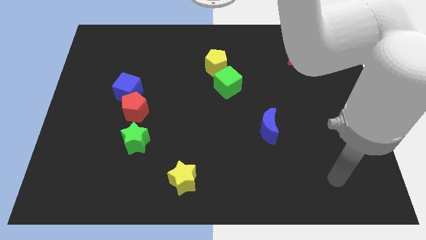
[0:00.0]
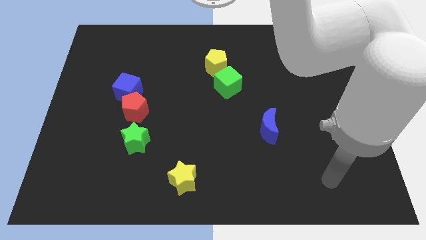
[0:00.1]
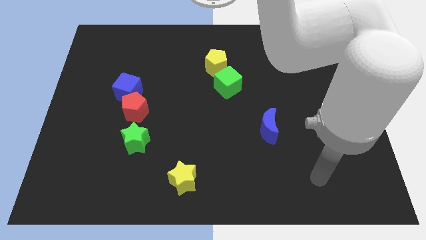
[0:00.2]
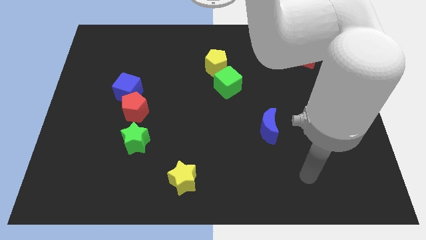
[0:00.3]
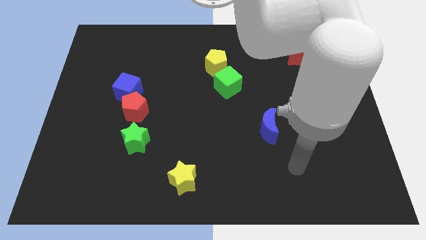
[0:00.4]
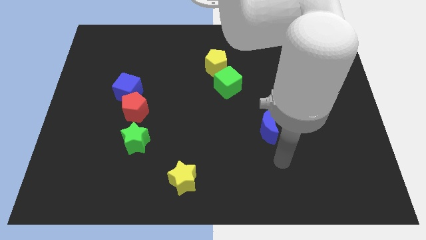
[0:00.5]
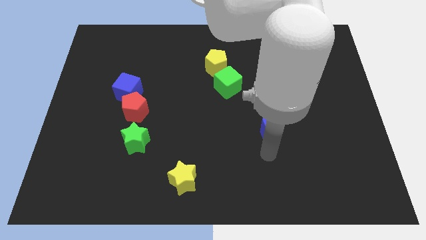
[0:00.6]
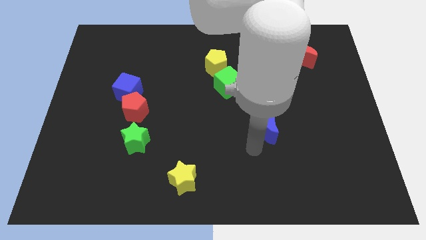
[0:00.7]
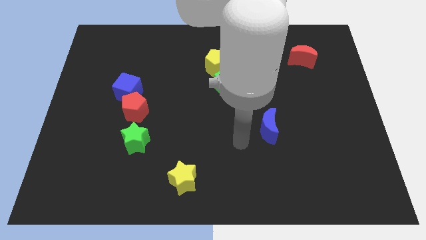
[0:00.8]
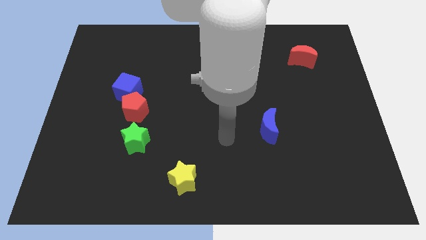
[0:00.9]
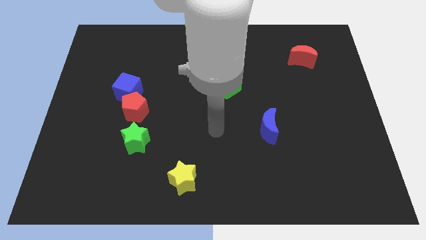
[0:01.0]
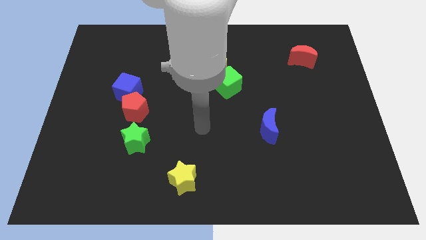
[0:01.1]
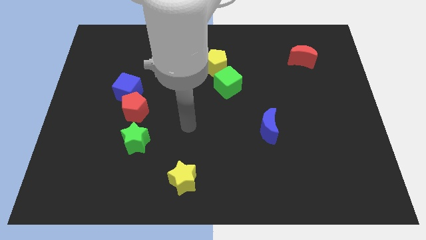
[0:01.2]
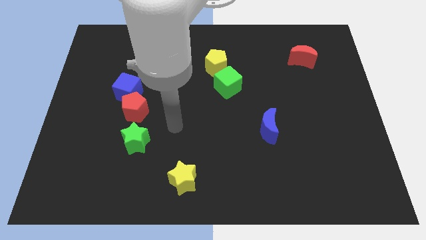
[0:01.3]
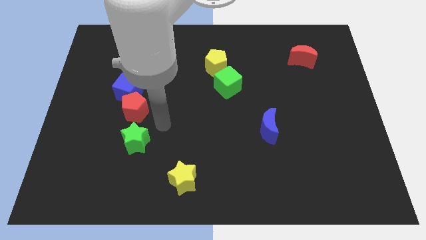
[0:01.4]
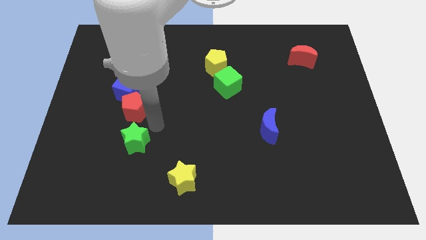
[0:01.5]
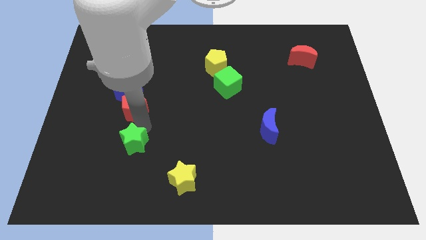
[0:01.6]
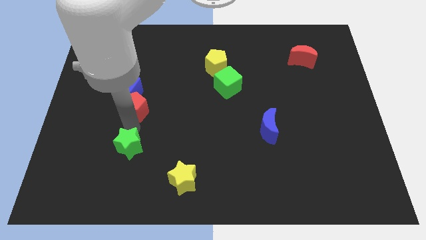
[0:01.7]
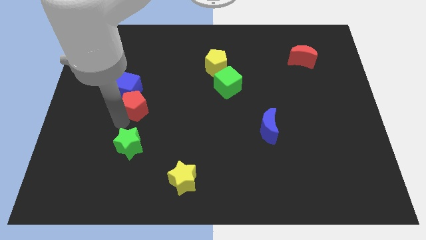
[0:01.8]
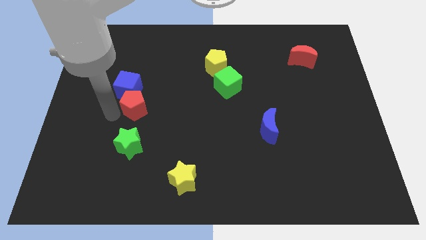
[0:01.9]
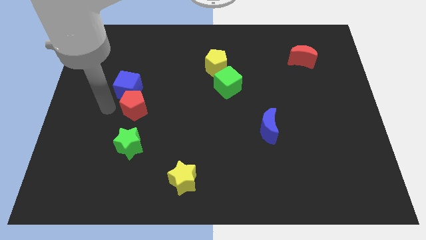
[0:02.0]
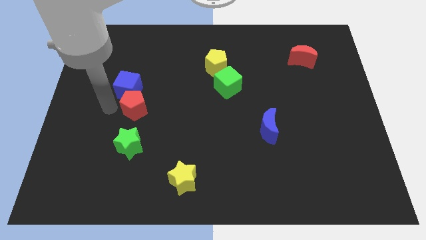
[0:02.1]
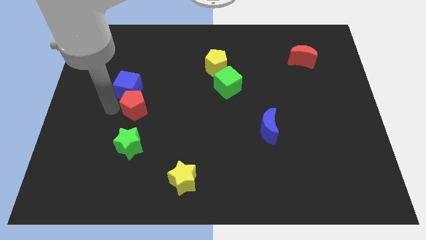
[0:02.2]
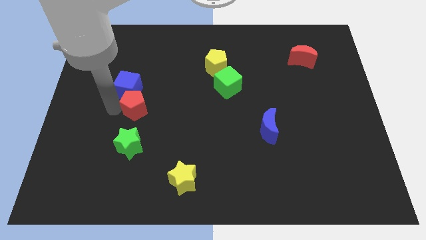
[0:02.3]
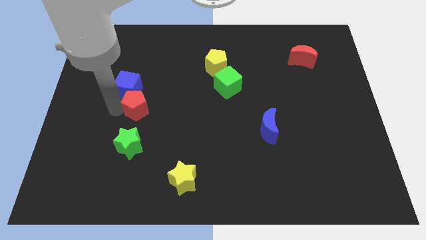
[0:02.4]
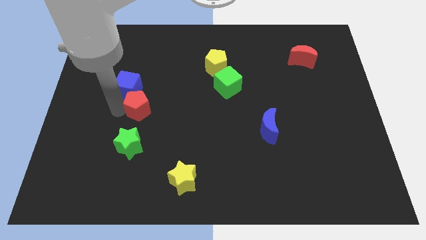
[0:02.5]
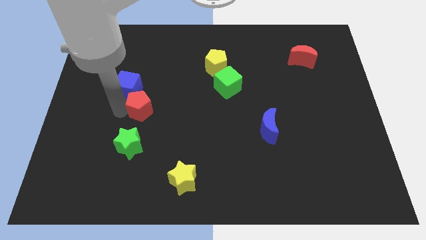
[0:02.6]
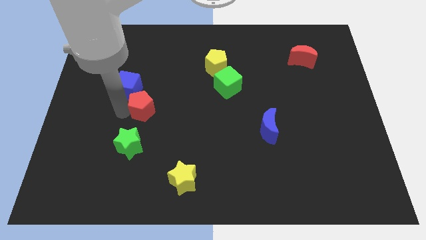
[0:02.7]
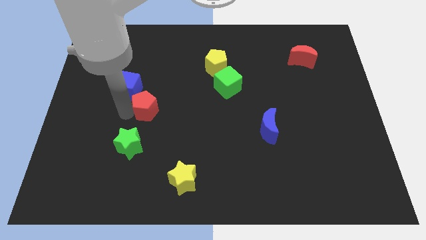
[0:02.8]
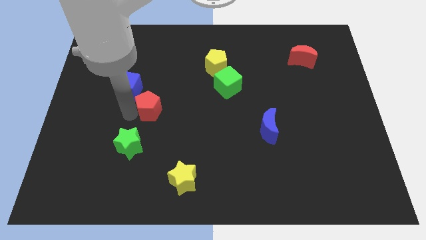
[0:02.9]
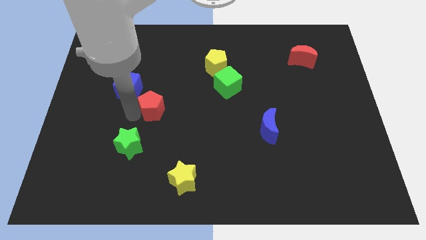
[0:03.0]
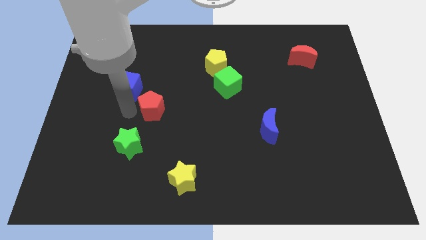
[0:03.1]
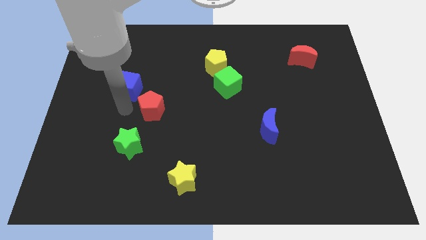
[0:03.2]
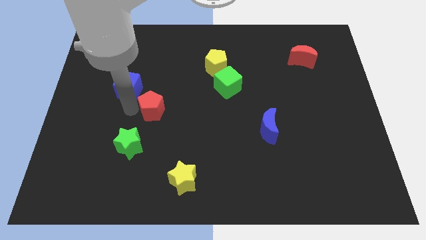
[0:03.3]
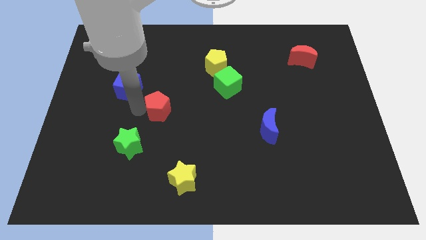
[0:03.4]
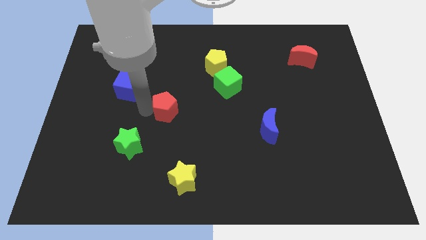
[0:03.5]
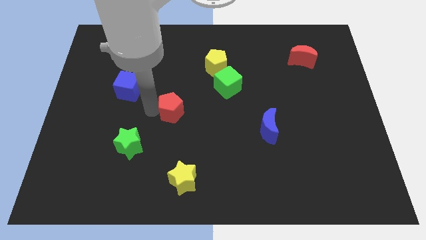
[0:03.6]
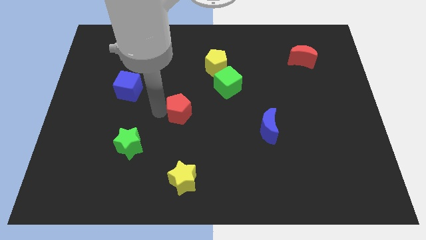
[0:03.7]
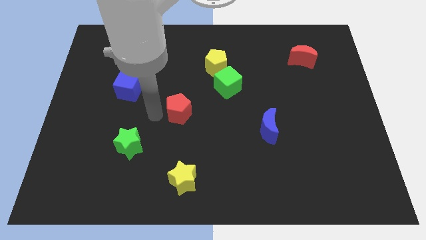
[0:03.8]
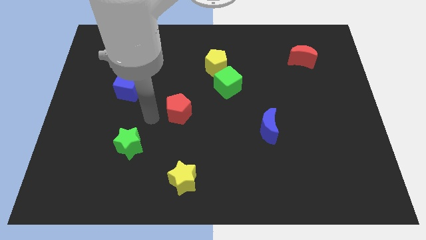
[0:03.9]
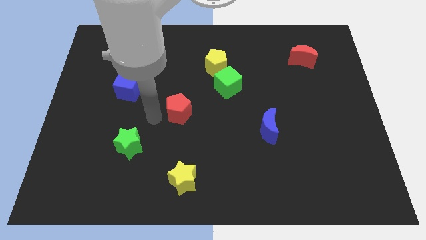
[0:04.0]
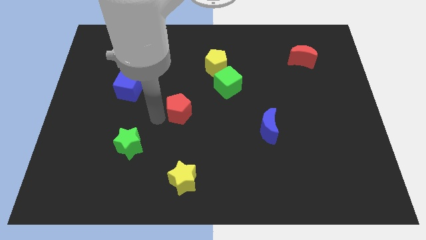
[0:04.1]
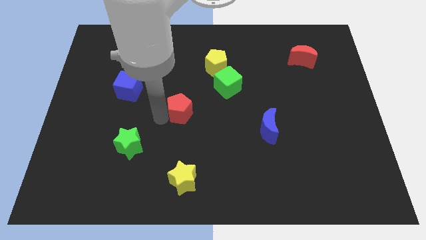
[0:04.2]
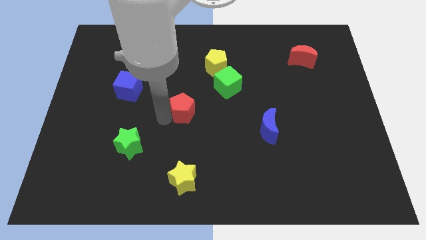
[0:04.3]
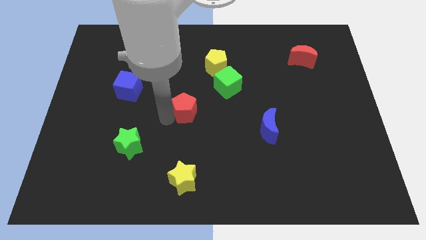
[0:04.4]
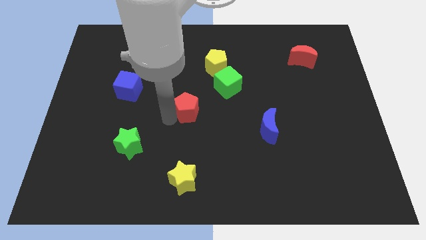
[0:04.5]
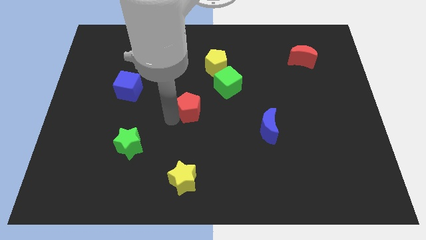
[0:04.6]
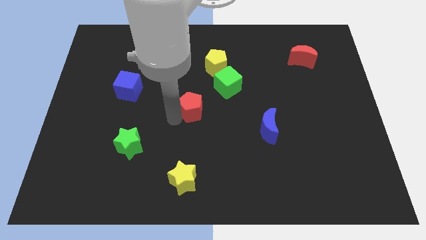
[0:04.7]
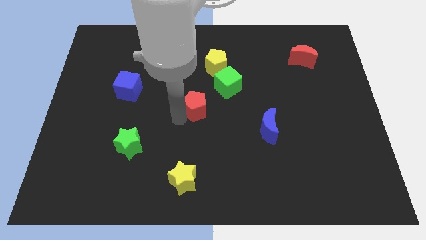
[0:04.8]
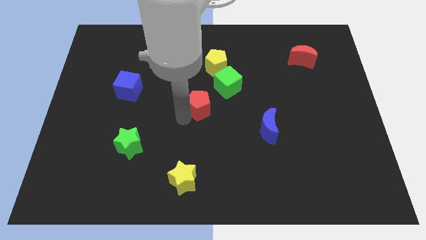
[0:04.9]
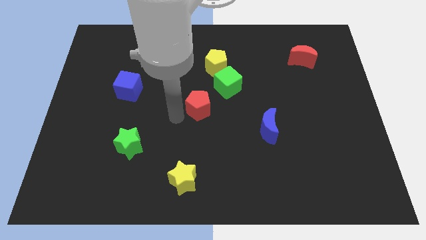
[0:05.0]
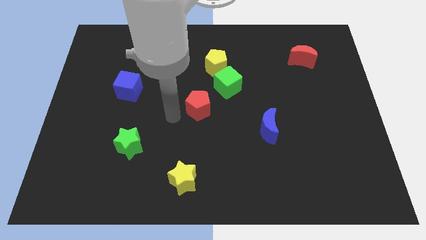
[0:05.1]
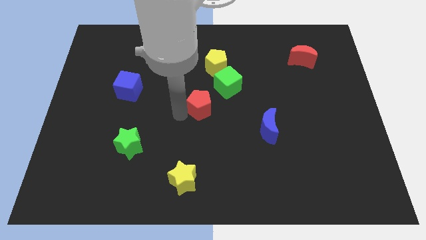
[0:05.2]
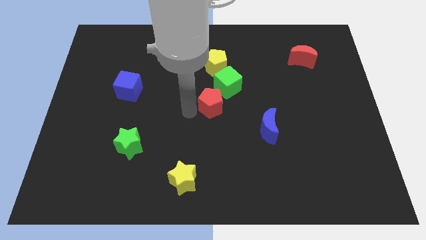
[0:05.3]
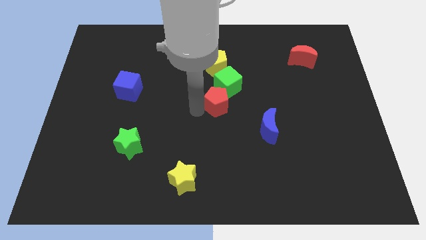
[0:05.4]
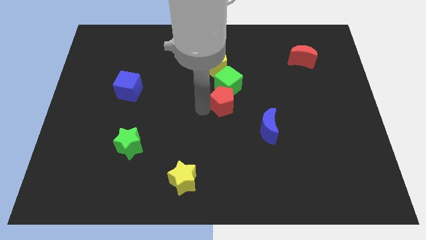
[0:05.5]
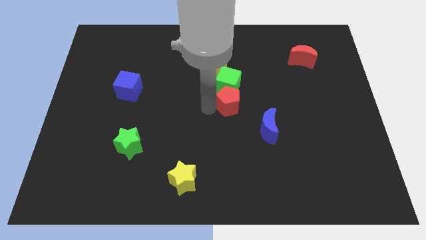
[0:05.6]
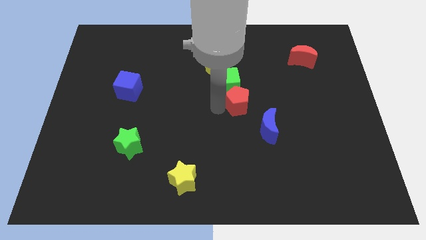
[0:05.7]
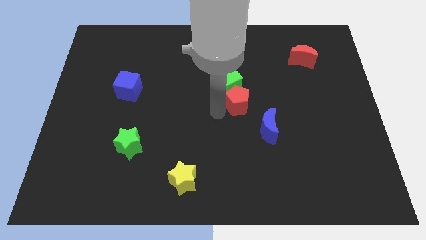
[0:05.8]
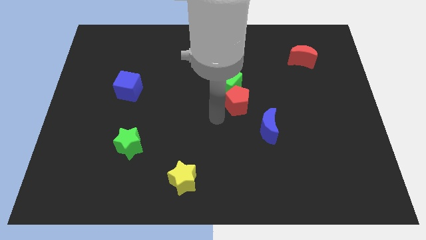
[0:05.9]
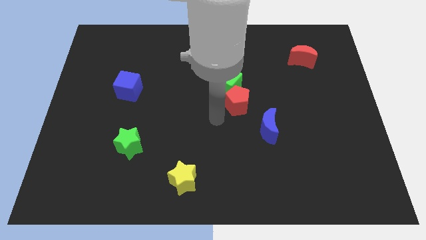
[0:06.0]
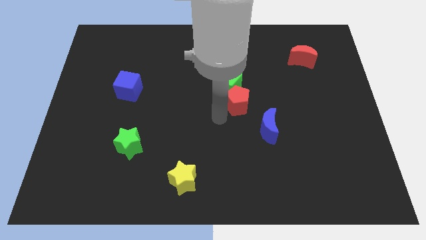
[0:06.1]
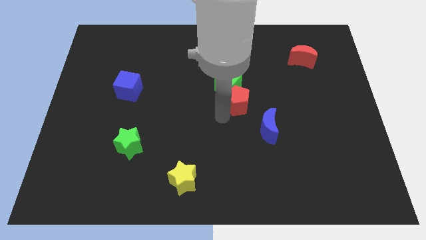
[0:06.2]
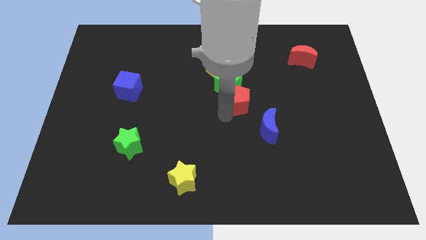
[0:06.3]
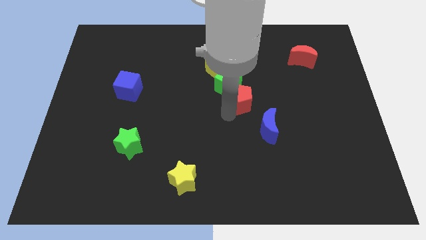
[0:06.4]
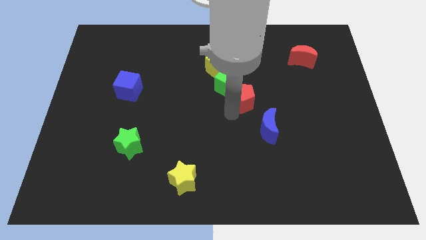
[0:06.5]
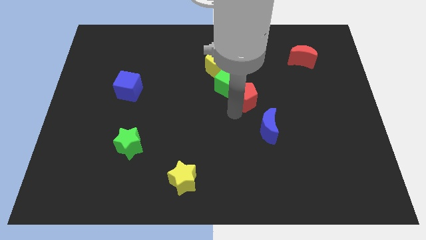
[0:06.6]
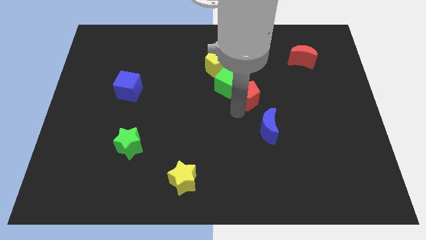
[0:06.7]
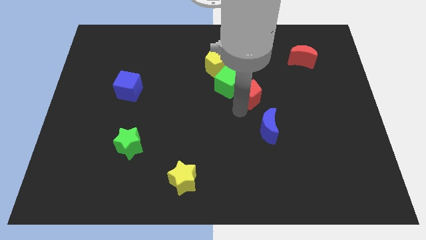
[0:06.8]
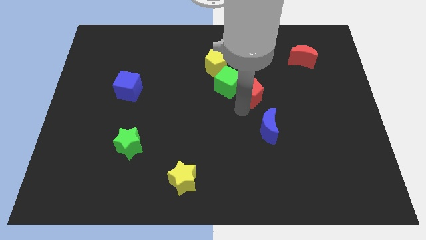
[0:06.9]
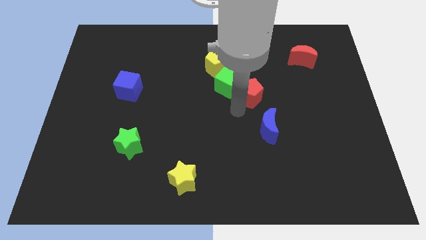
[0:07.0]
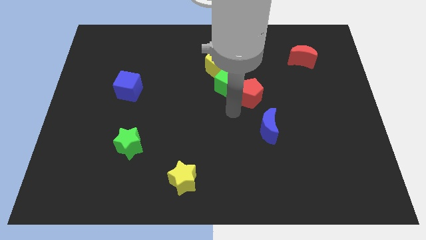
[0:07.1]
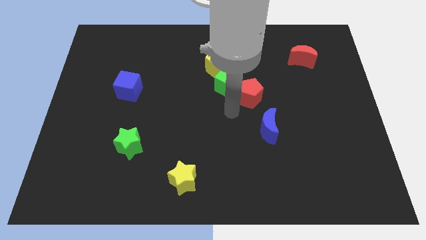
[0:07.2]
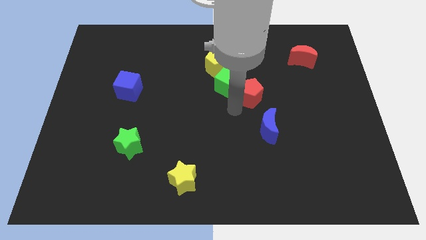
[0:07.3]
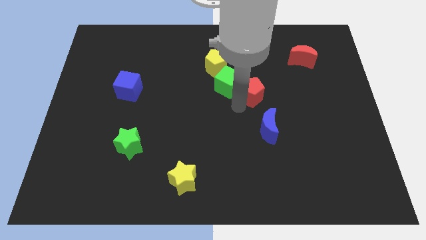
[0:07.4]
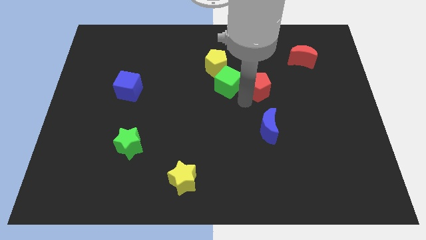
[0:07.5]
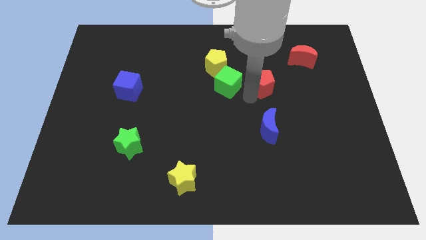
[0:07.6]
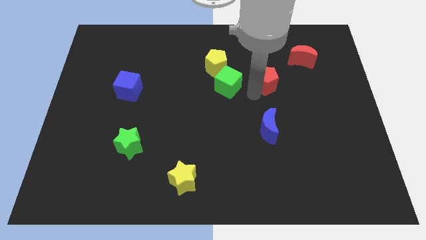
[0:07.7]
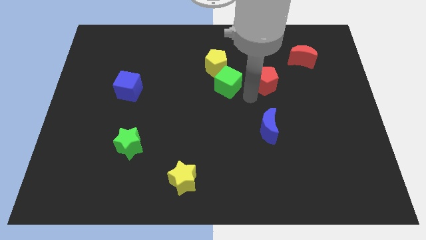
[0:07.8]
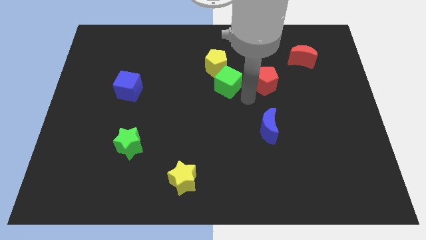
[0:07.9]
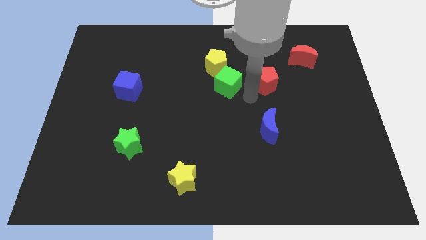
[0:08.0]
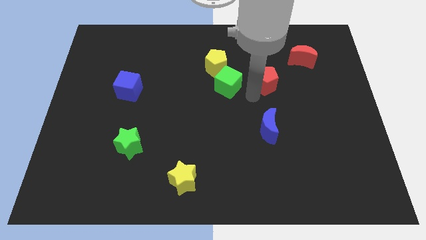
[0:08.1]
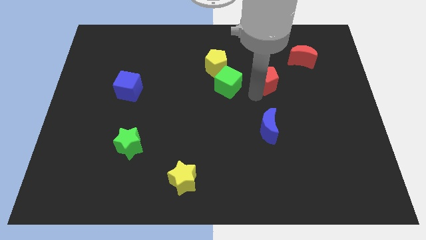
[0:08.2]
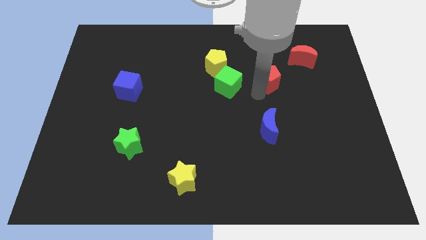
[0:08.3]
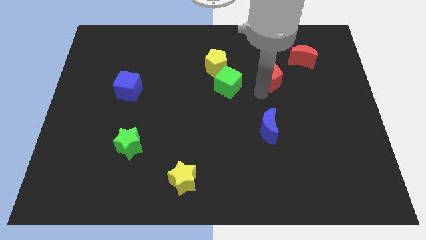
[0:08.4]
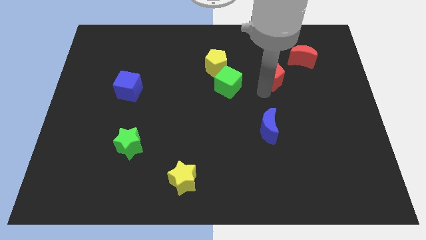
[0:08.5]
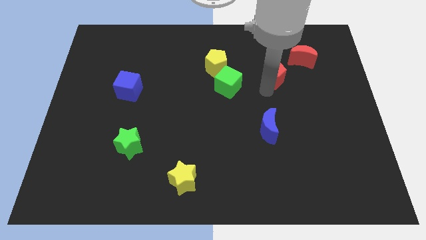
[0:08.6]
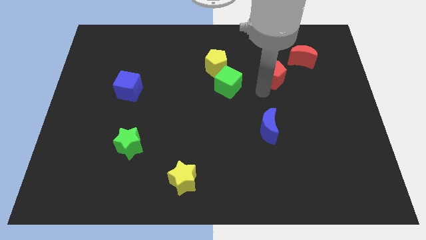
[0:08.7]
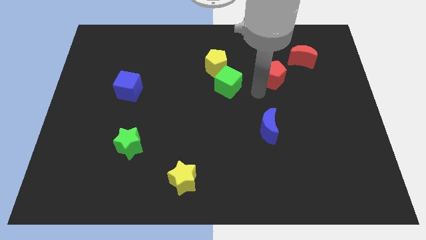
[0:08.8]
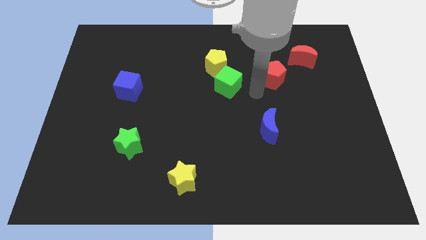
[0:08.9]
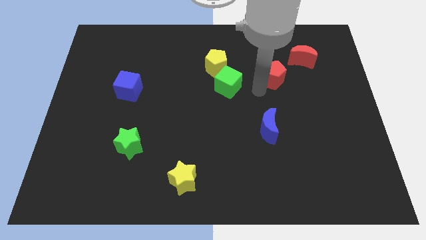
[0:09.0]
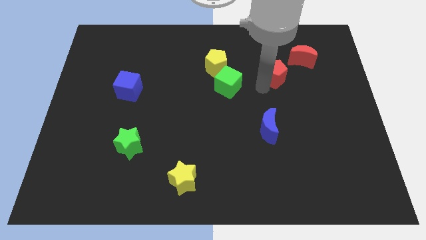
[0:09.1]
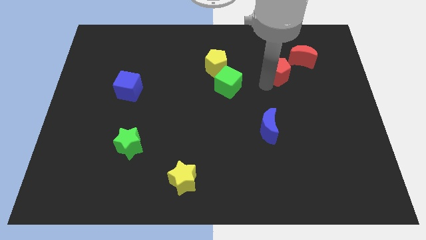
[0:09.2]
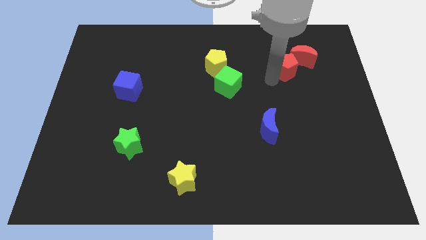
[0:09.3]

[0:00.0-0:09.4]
put the red pentagon towards the red moon
